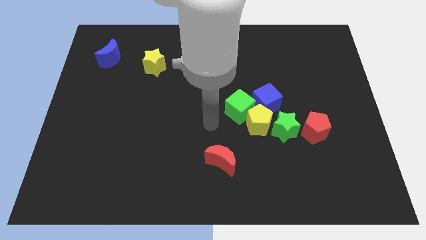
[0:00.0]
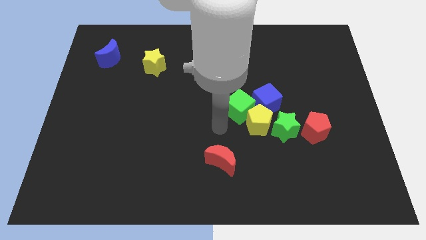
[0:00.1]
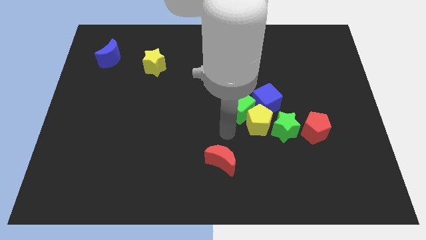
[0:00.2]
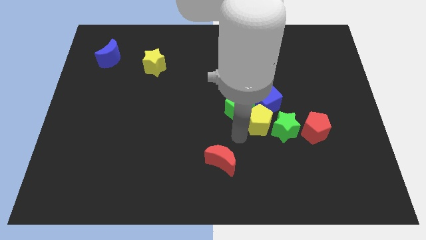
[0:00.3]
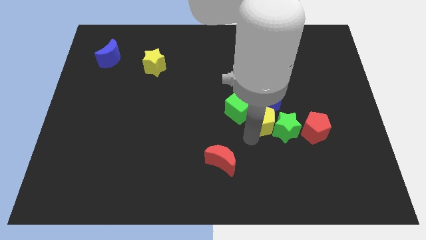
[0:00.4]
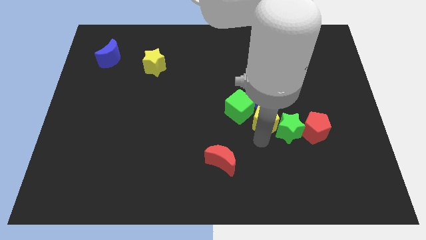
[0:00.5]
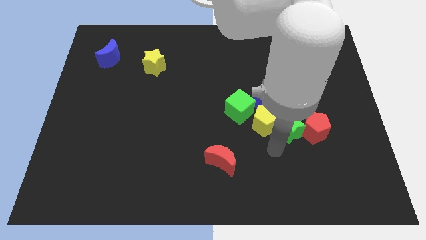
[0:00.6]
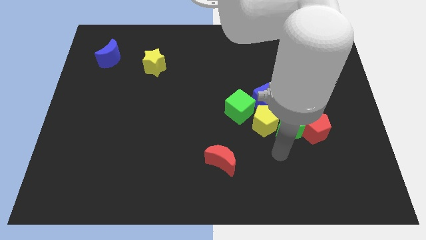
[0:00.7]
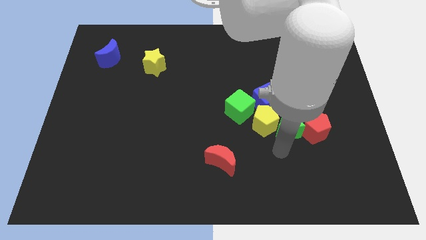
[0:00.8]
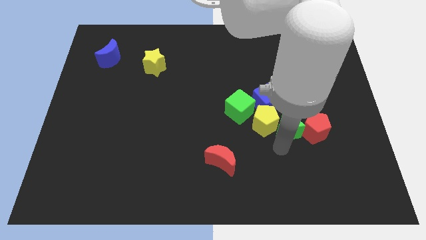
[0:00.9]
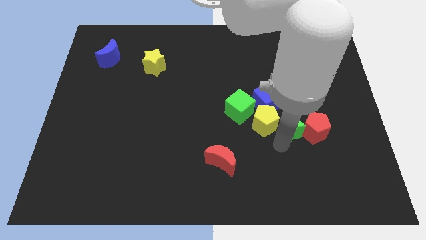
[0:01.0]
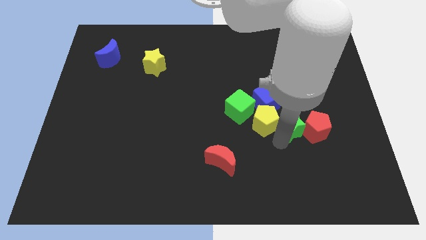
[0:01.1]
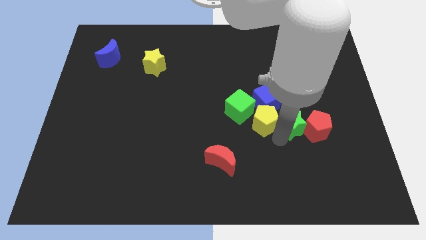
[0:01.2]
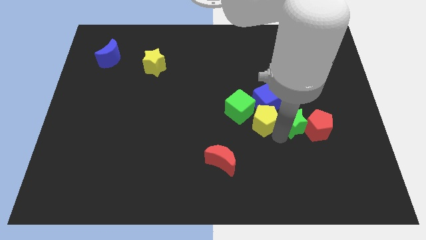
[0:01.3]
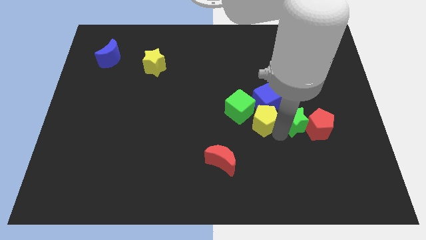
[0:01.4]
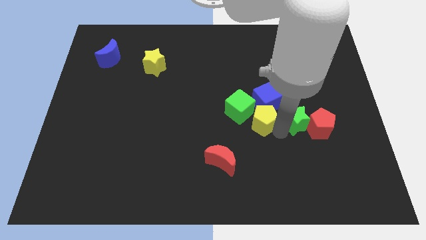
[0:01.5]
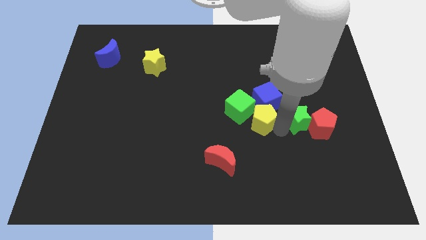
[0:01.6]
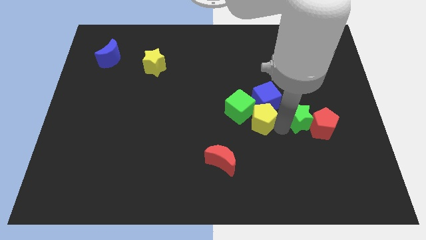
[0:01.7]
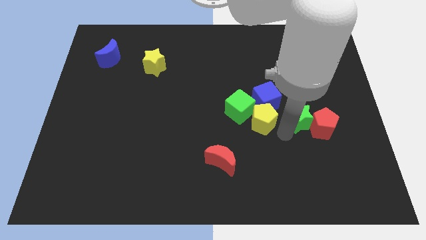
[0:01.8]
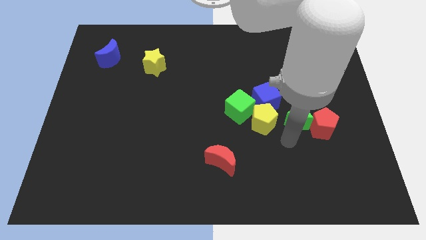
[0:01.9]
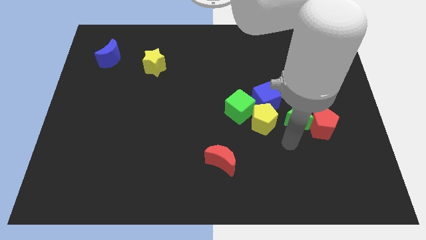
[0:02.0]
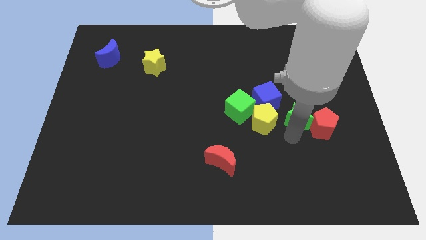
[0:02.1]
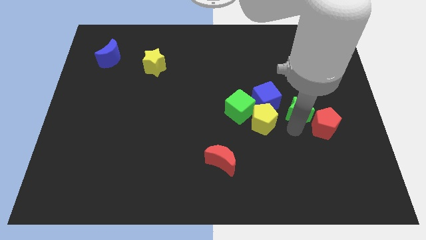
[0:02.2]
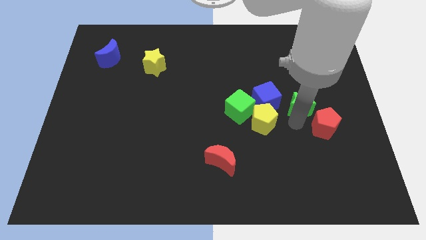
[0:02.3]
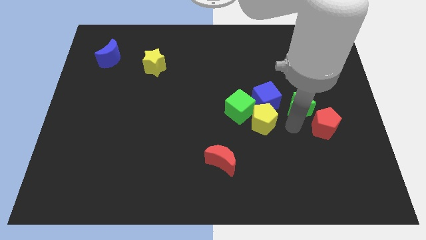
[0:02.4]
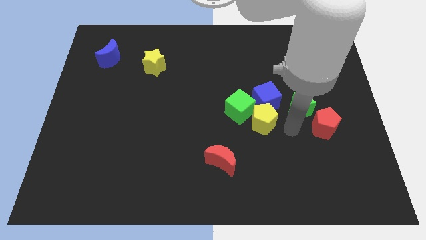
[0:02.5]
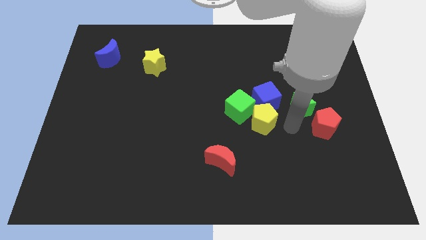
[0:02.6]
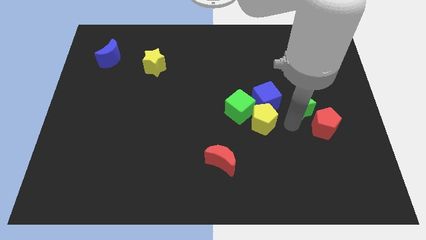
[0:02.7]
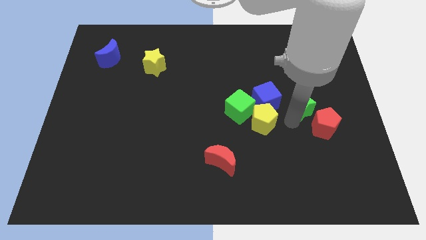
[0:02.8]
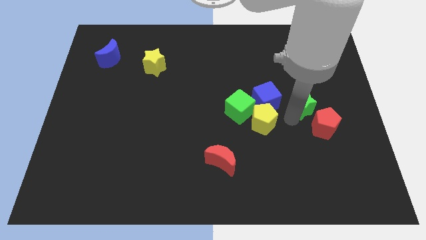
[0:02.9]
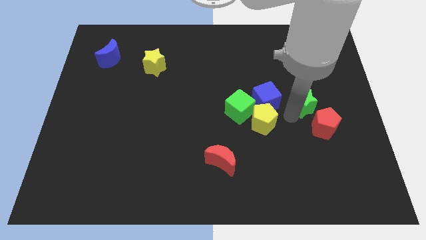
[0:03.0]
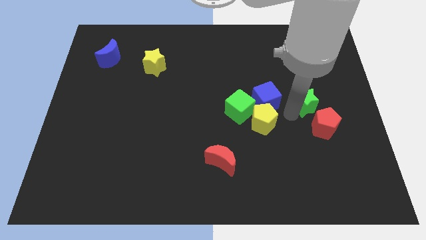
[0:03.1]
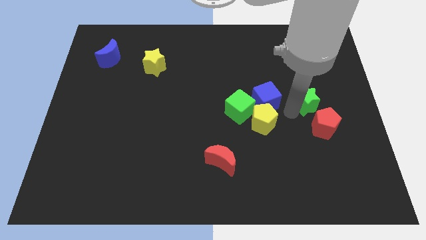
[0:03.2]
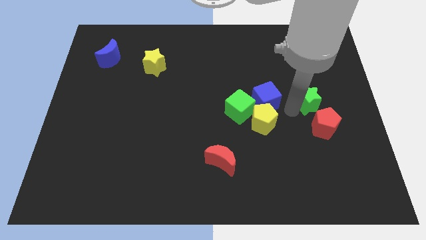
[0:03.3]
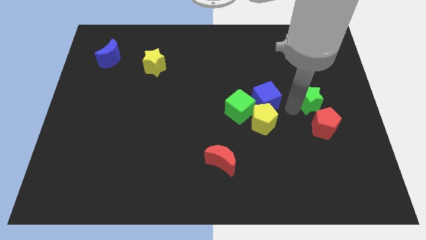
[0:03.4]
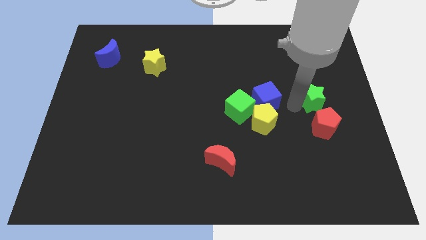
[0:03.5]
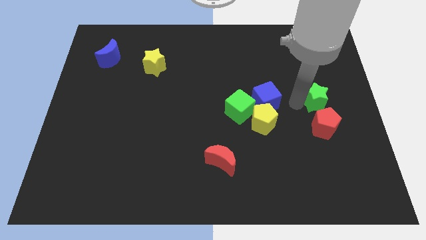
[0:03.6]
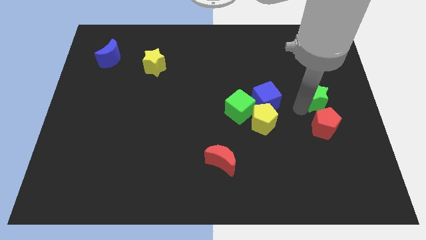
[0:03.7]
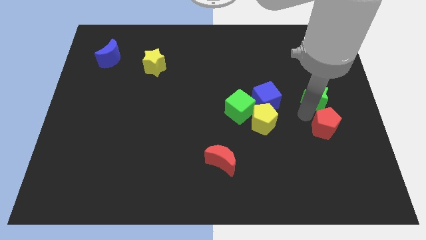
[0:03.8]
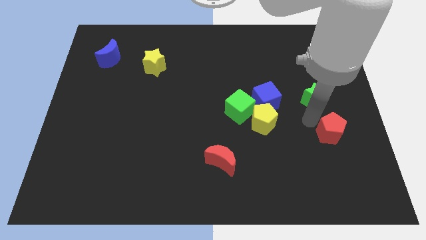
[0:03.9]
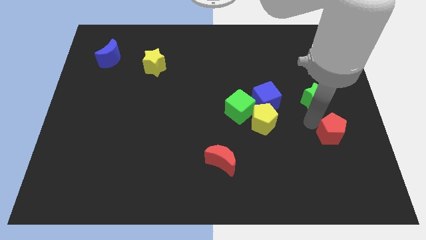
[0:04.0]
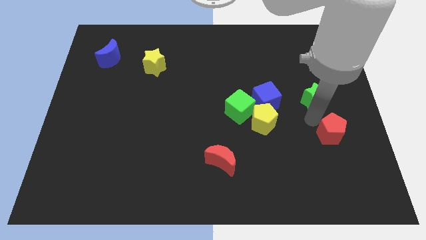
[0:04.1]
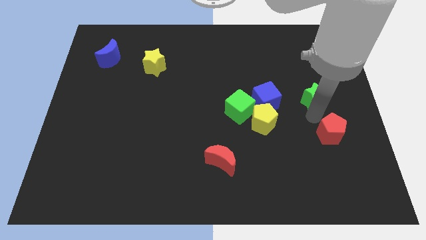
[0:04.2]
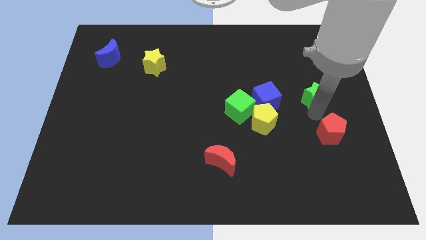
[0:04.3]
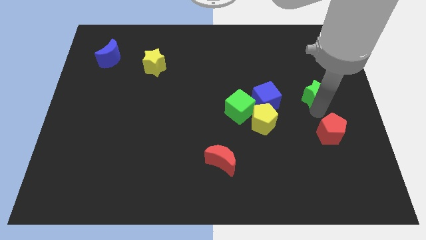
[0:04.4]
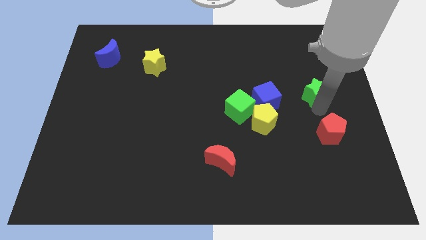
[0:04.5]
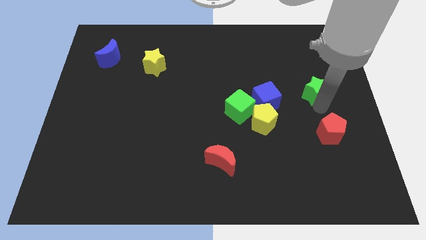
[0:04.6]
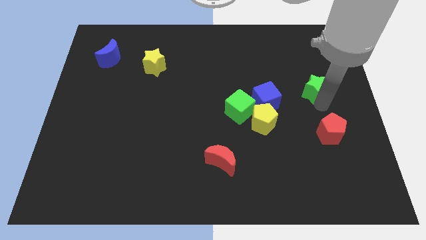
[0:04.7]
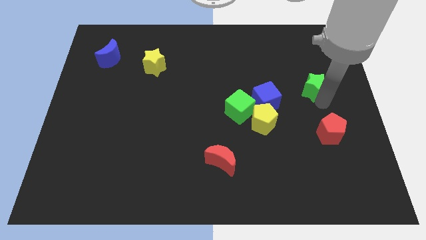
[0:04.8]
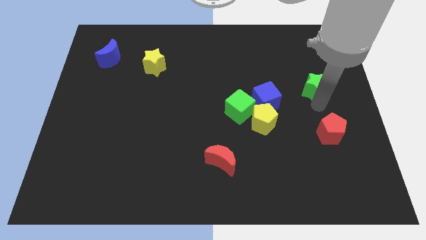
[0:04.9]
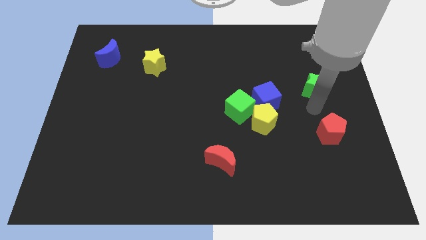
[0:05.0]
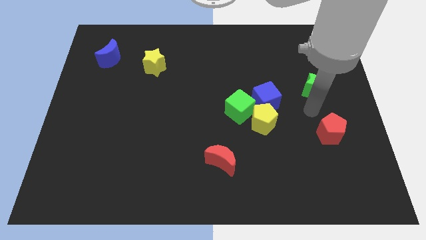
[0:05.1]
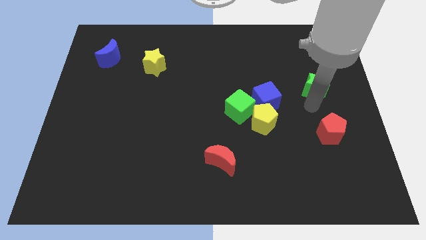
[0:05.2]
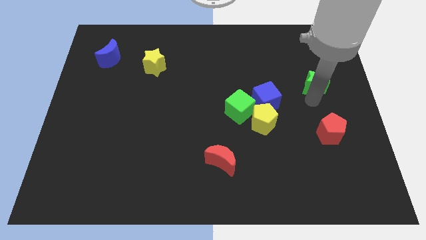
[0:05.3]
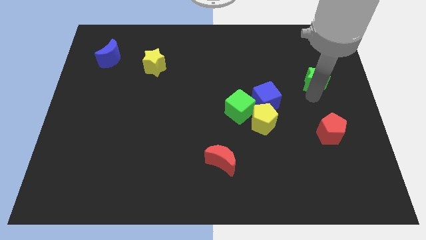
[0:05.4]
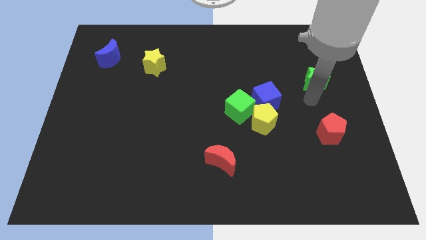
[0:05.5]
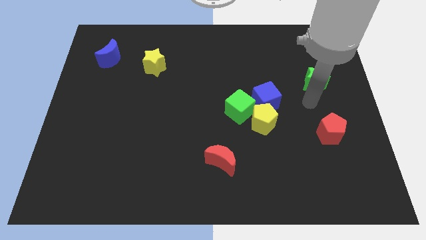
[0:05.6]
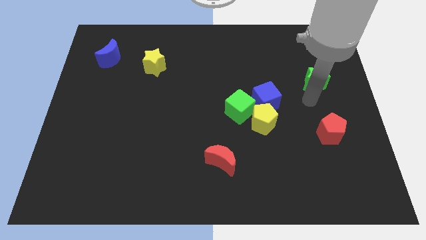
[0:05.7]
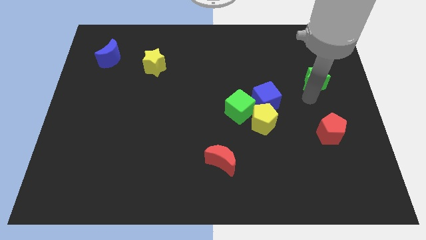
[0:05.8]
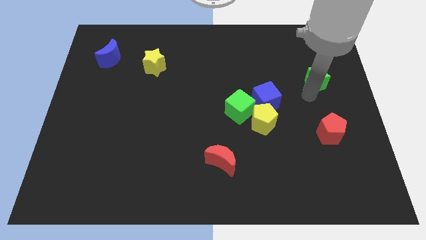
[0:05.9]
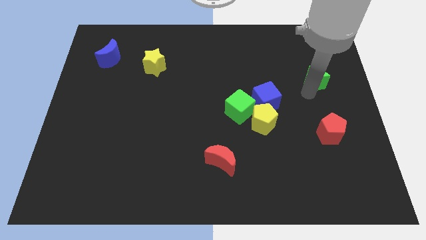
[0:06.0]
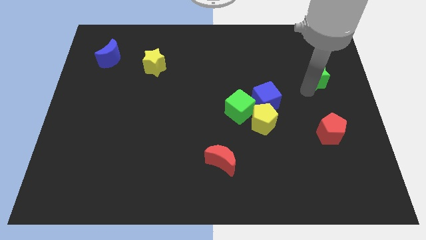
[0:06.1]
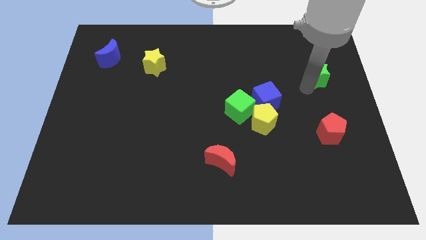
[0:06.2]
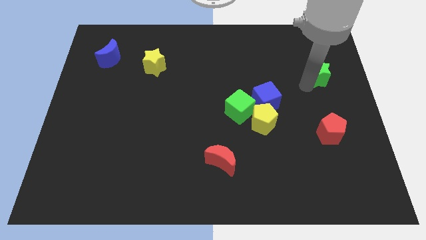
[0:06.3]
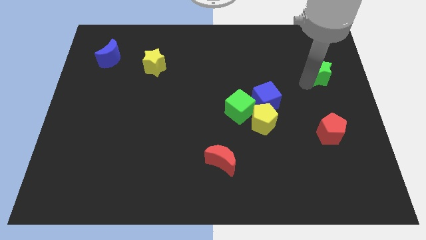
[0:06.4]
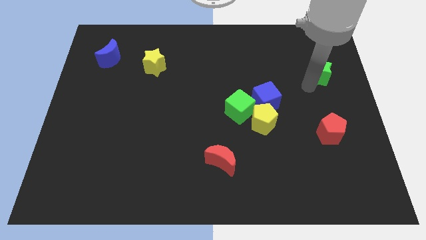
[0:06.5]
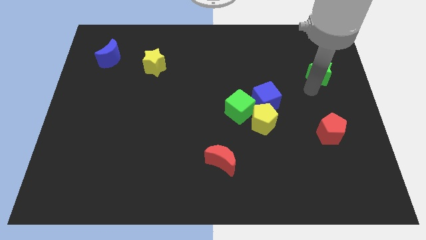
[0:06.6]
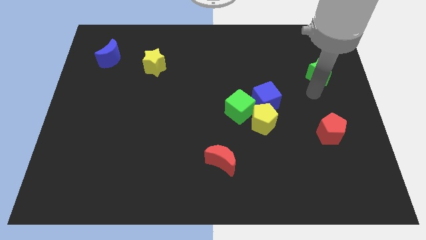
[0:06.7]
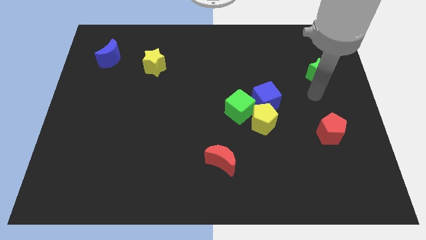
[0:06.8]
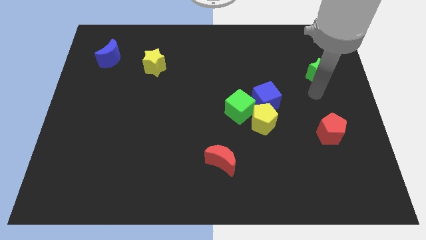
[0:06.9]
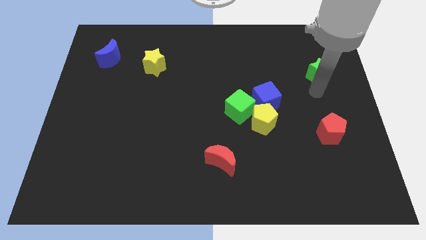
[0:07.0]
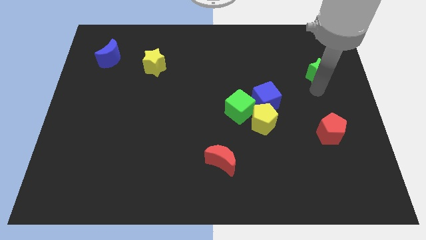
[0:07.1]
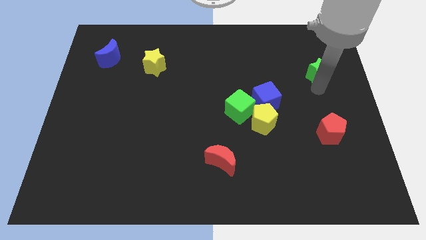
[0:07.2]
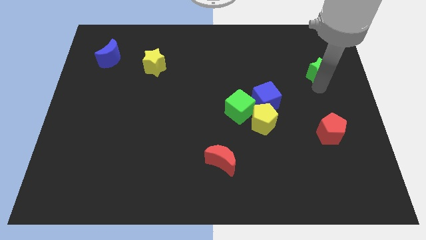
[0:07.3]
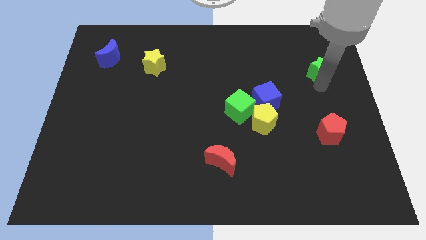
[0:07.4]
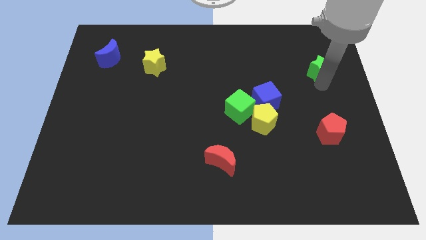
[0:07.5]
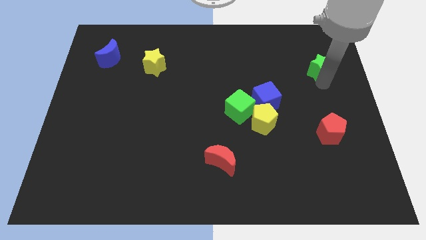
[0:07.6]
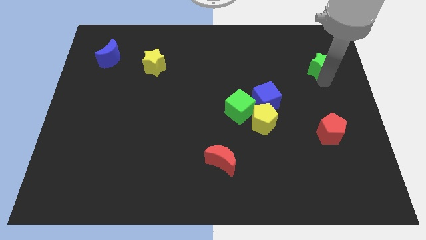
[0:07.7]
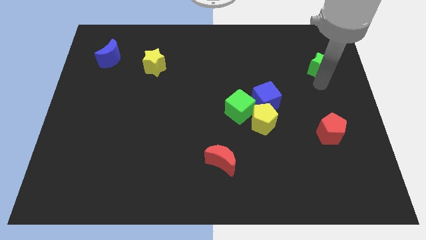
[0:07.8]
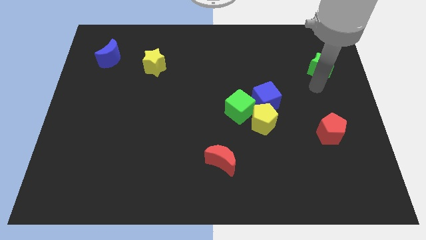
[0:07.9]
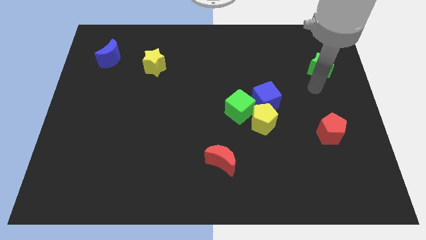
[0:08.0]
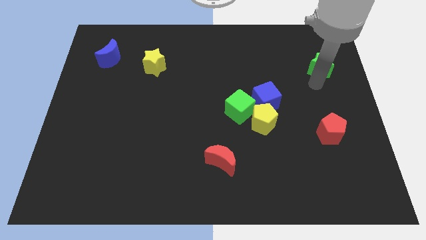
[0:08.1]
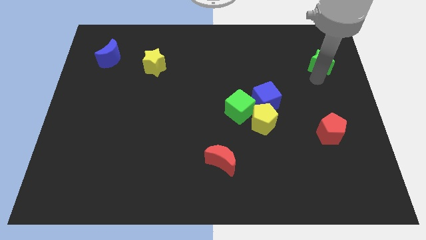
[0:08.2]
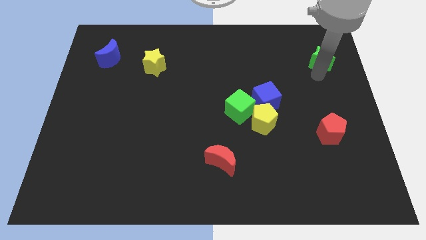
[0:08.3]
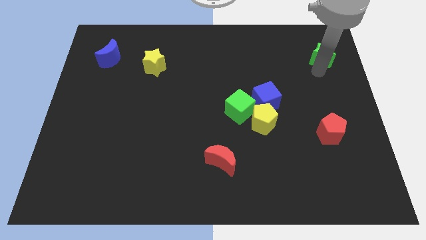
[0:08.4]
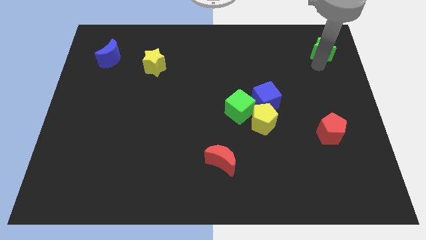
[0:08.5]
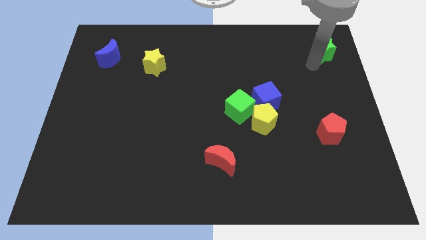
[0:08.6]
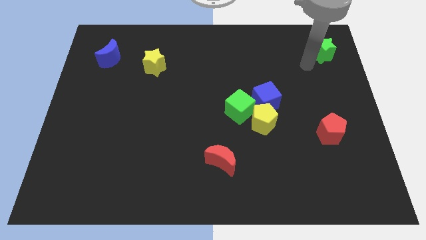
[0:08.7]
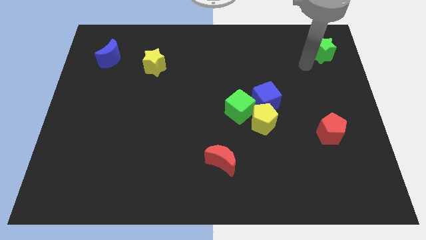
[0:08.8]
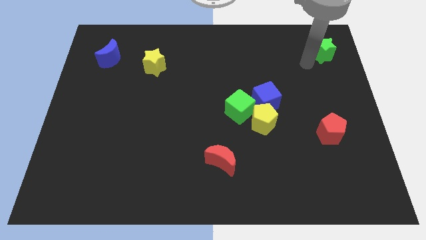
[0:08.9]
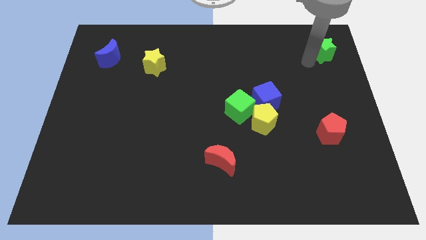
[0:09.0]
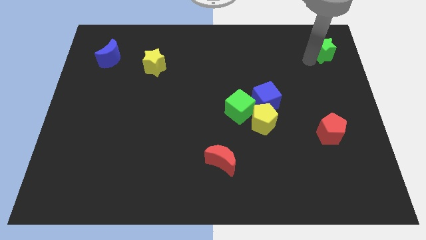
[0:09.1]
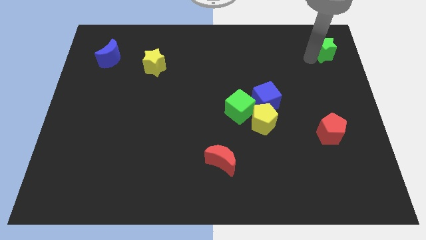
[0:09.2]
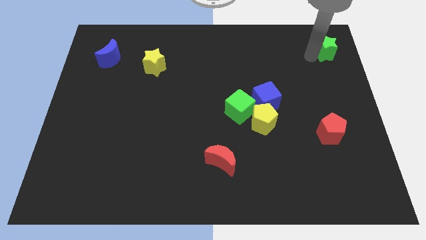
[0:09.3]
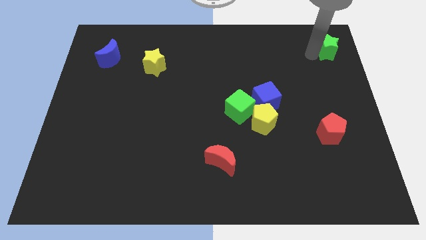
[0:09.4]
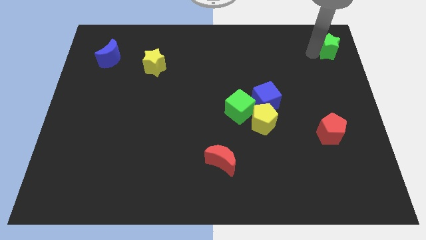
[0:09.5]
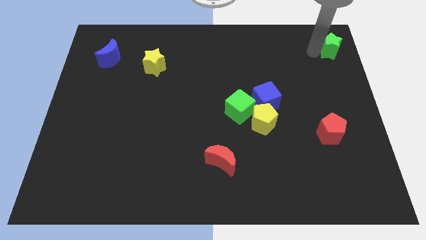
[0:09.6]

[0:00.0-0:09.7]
push the green star to the top right
